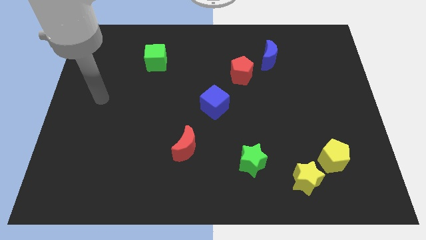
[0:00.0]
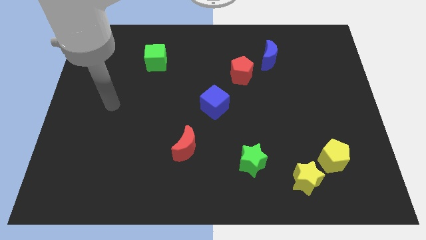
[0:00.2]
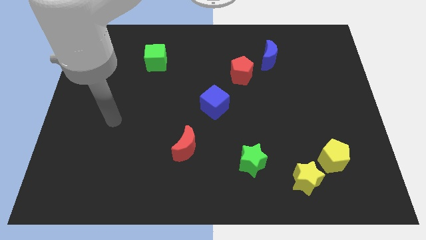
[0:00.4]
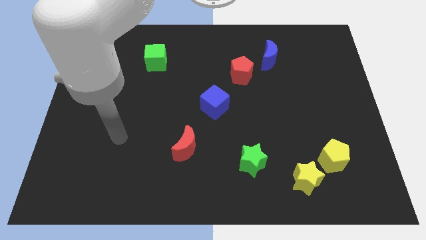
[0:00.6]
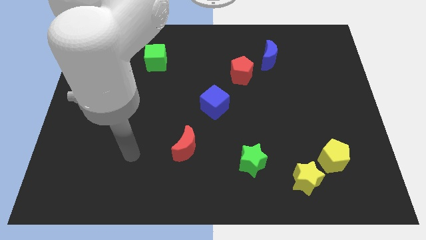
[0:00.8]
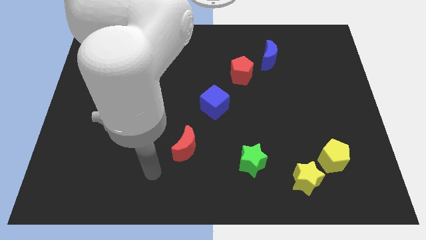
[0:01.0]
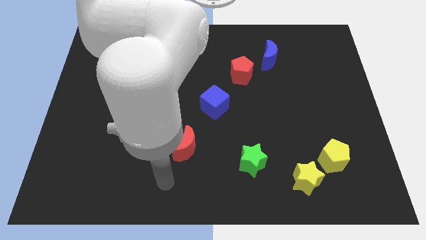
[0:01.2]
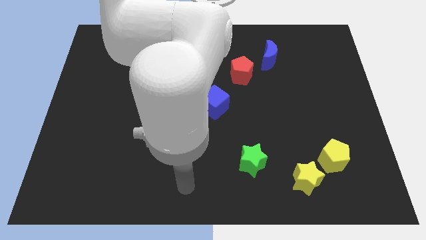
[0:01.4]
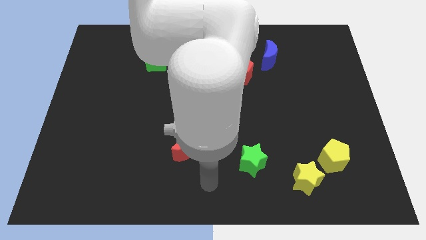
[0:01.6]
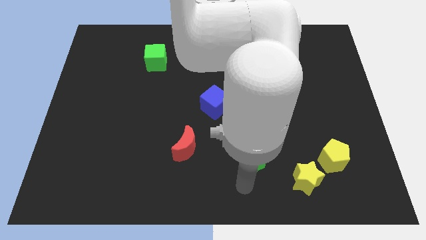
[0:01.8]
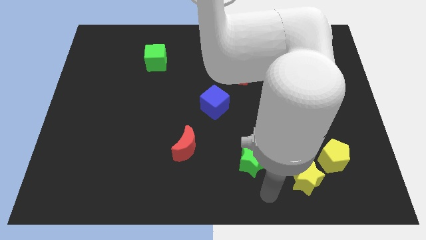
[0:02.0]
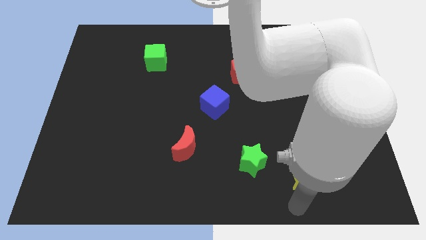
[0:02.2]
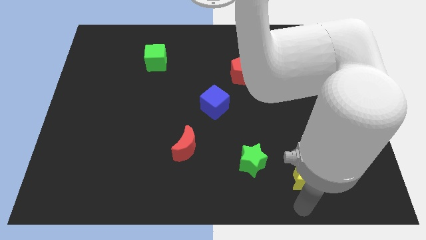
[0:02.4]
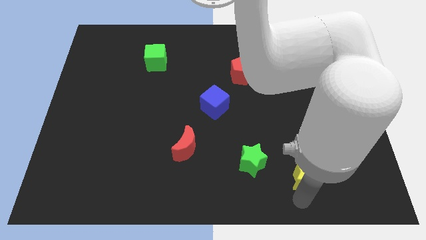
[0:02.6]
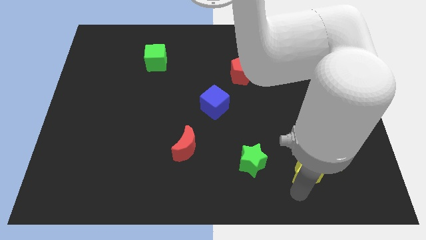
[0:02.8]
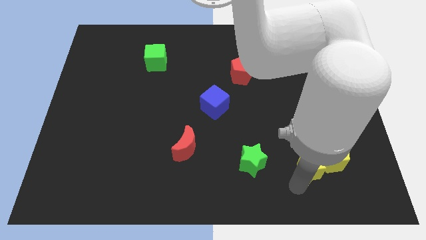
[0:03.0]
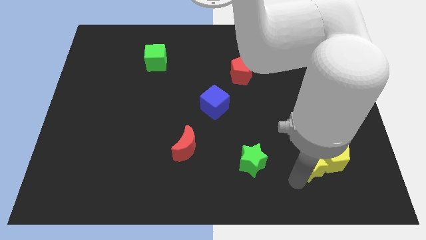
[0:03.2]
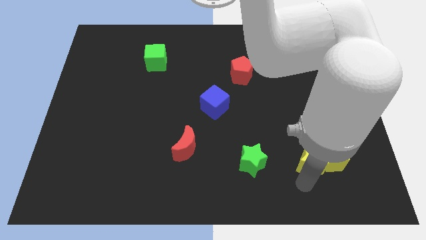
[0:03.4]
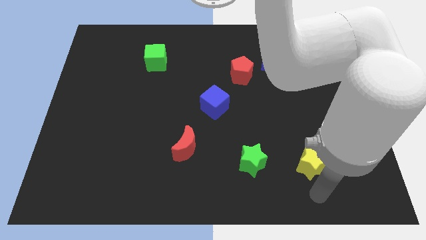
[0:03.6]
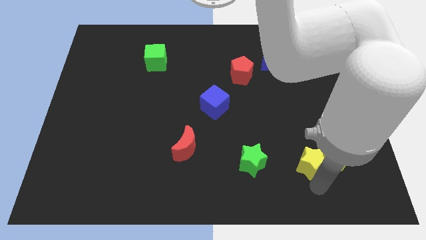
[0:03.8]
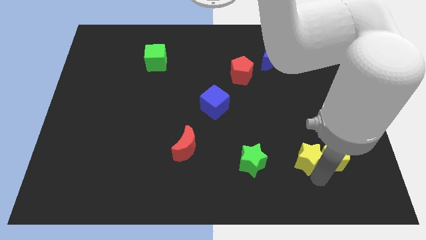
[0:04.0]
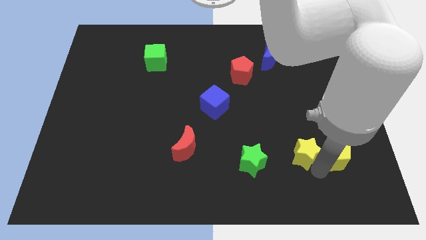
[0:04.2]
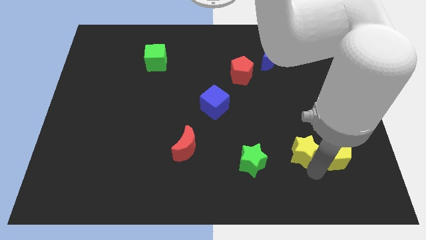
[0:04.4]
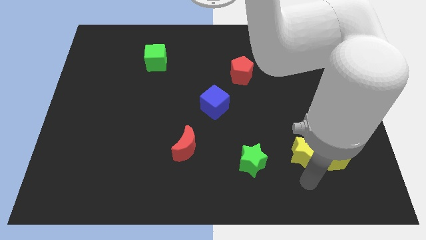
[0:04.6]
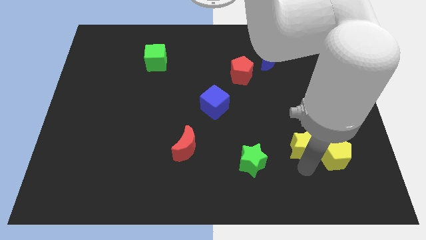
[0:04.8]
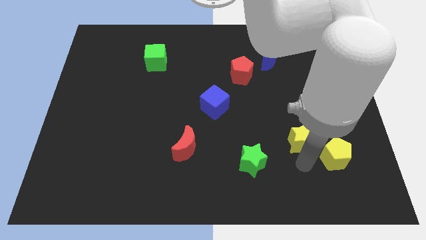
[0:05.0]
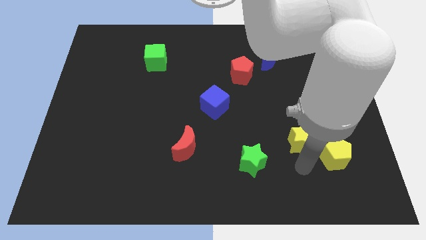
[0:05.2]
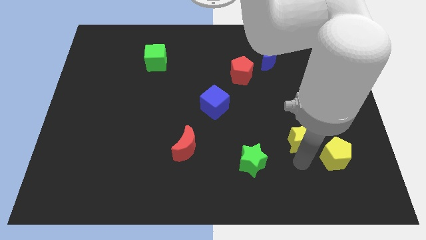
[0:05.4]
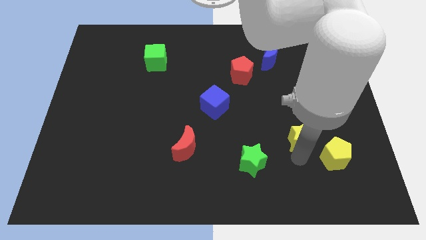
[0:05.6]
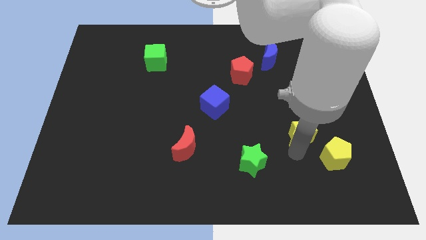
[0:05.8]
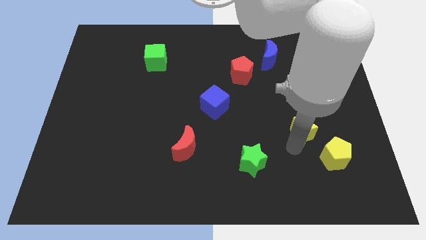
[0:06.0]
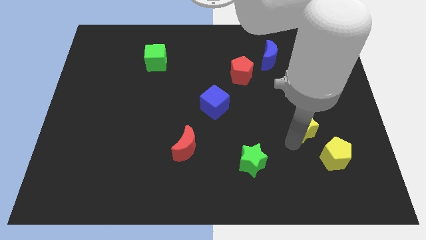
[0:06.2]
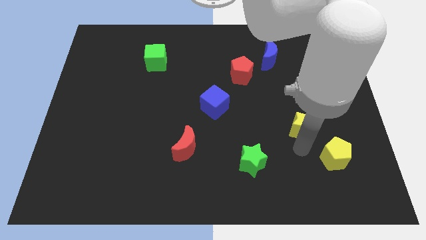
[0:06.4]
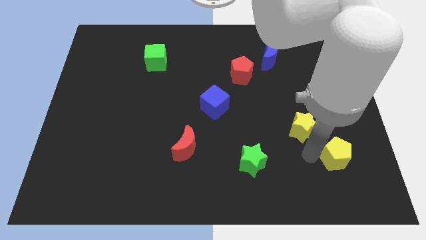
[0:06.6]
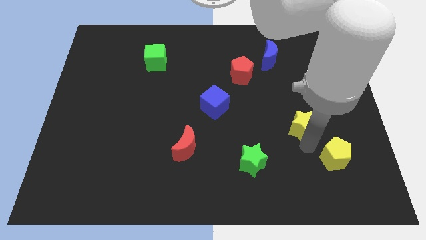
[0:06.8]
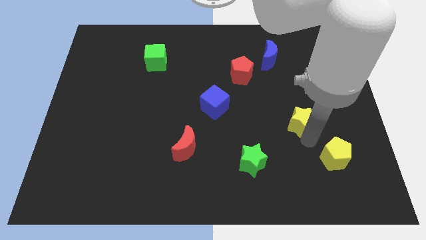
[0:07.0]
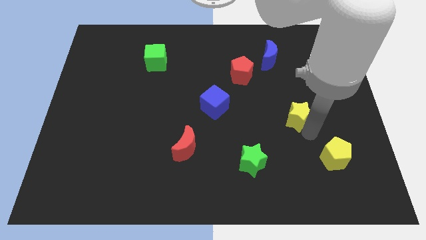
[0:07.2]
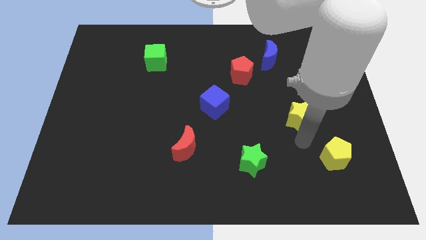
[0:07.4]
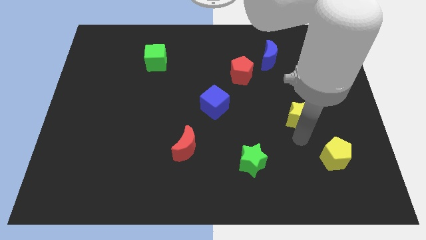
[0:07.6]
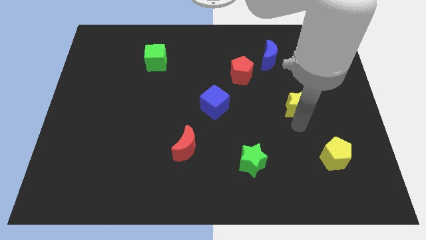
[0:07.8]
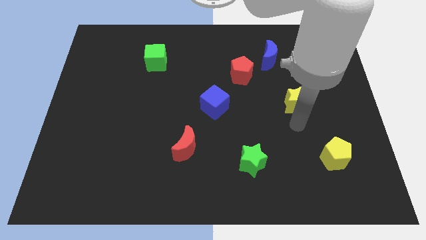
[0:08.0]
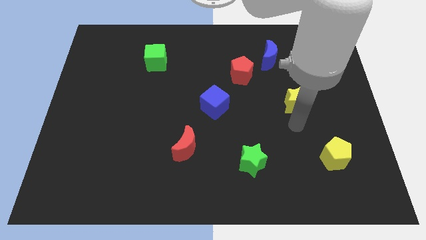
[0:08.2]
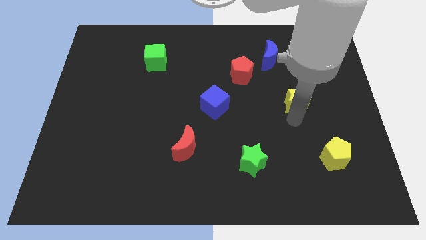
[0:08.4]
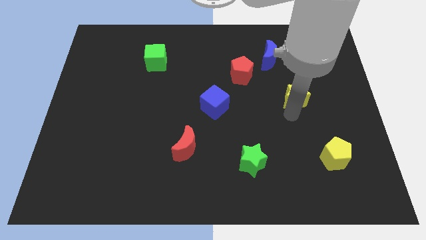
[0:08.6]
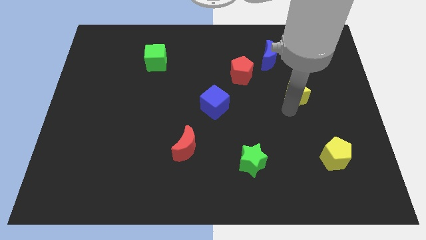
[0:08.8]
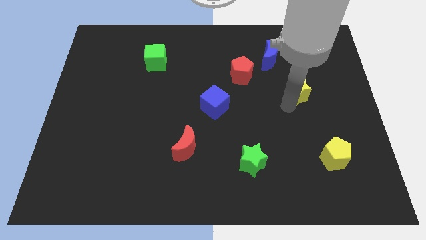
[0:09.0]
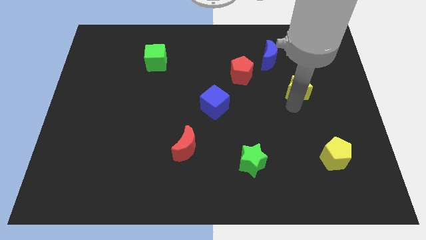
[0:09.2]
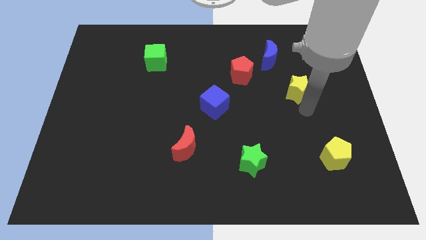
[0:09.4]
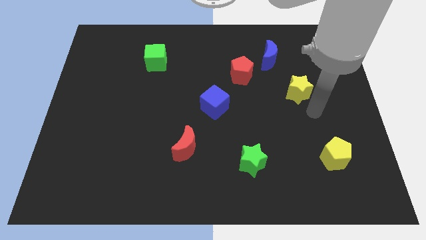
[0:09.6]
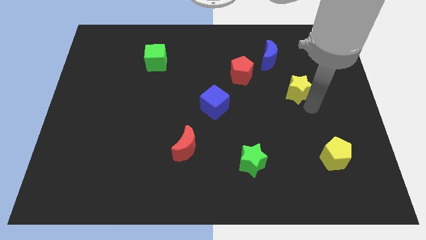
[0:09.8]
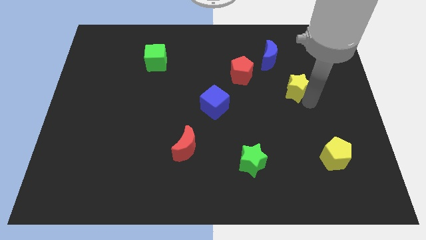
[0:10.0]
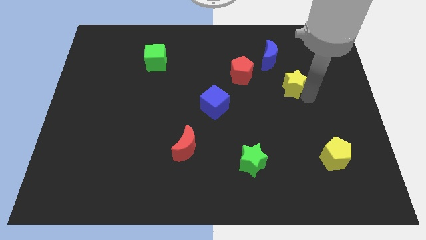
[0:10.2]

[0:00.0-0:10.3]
slide the yellow star to the right of the red pentagon

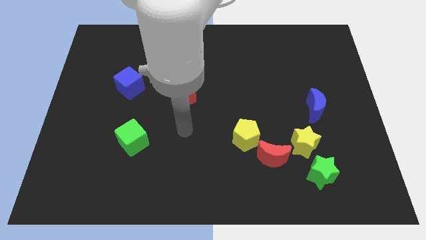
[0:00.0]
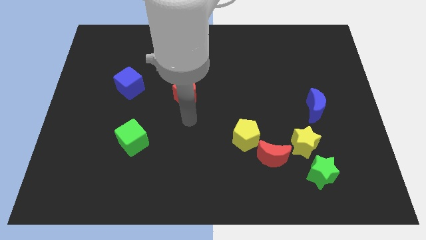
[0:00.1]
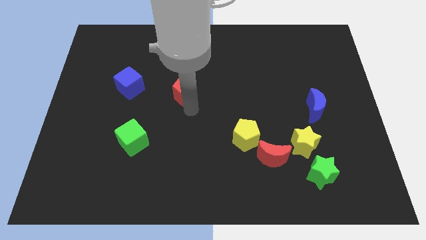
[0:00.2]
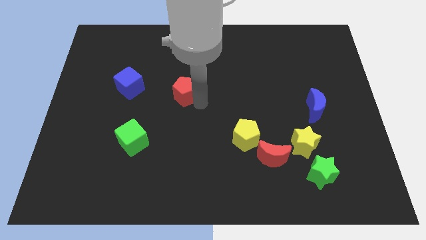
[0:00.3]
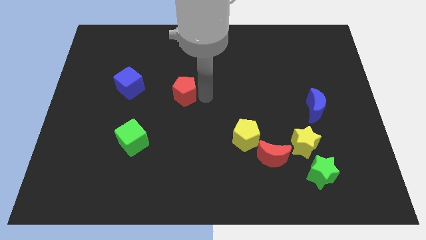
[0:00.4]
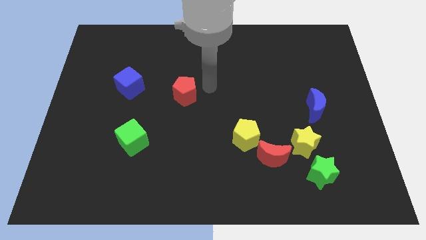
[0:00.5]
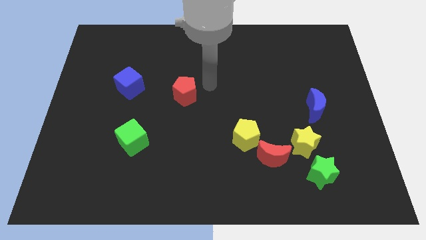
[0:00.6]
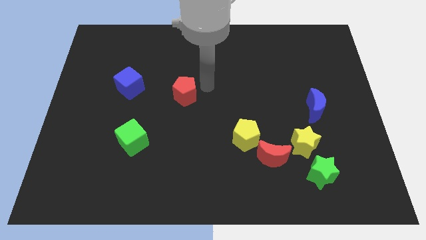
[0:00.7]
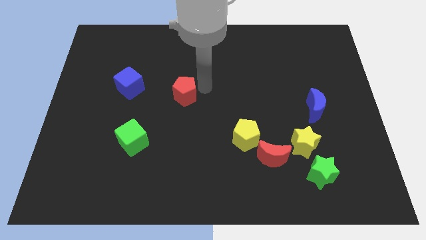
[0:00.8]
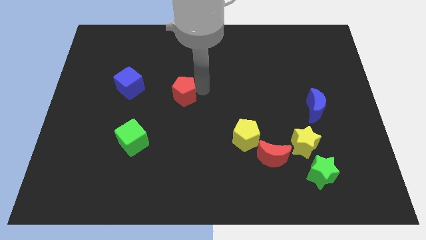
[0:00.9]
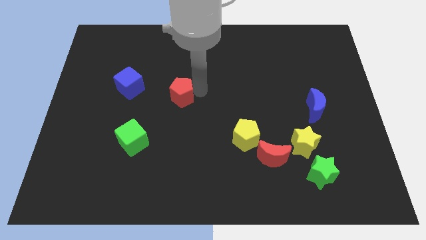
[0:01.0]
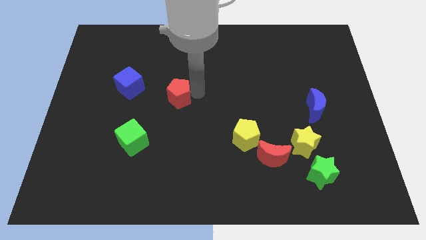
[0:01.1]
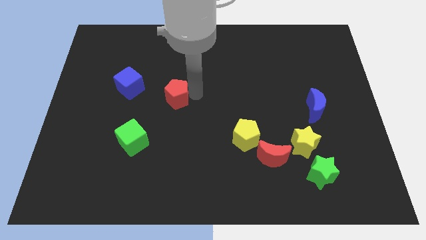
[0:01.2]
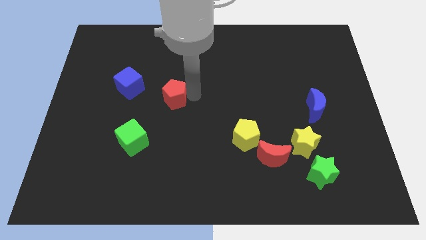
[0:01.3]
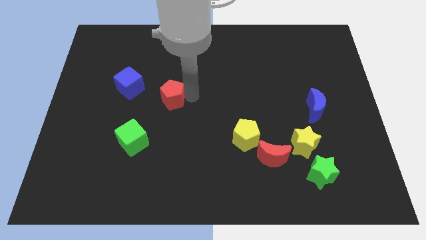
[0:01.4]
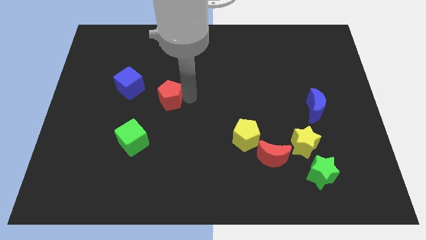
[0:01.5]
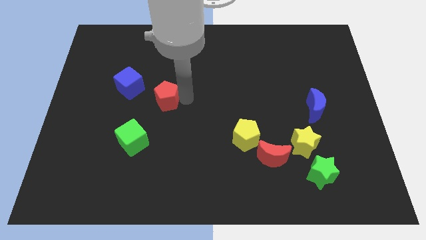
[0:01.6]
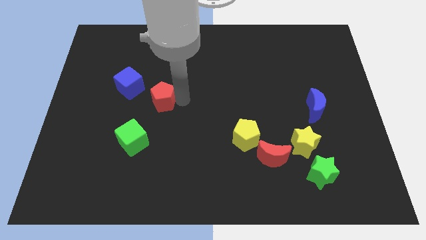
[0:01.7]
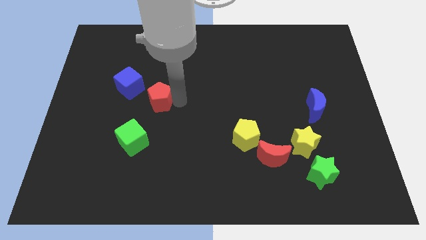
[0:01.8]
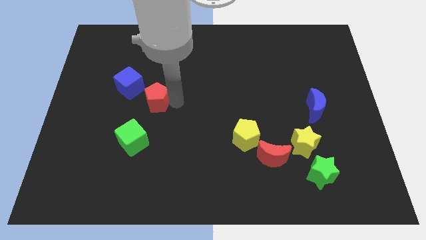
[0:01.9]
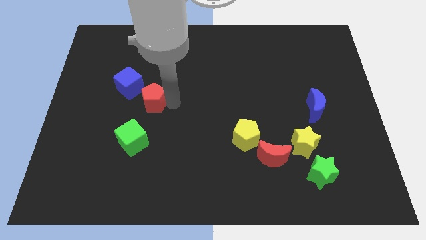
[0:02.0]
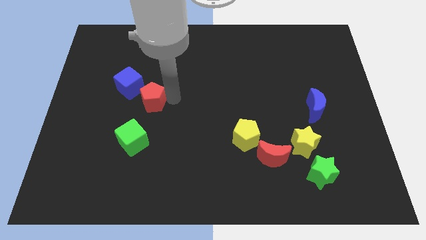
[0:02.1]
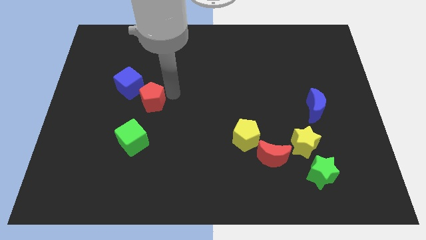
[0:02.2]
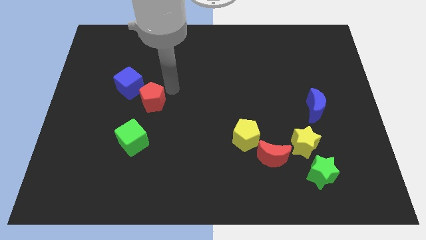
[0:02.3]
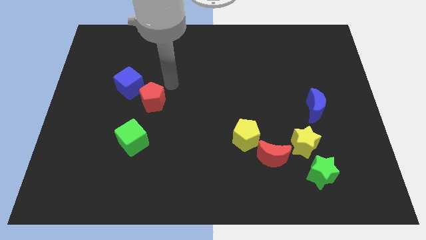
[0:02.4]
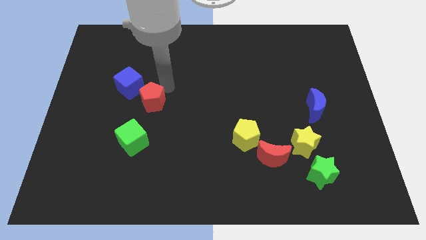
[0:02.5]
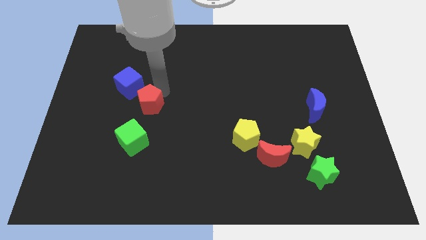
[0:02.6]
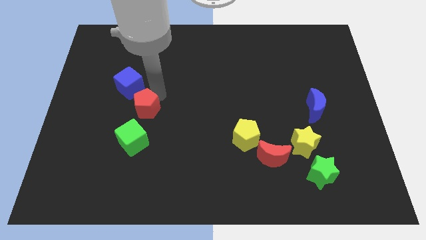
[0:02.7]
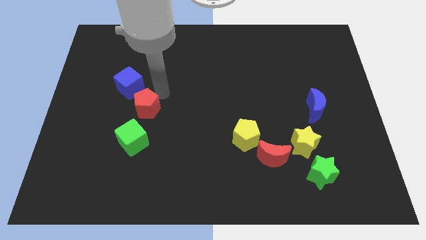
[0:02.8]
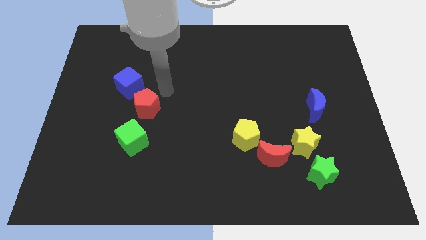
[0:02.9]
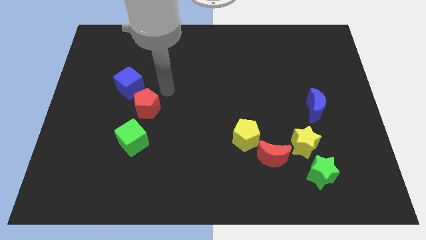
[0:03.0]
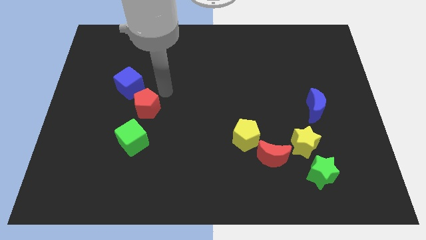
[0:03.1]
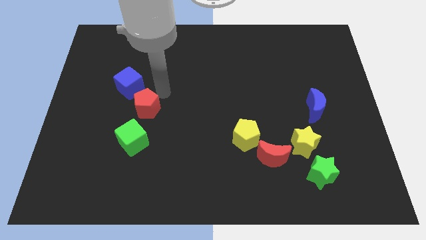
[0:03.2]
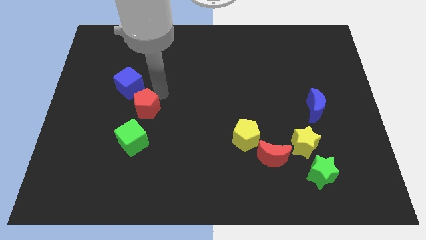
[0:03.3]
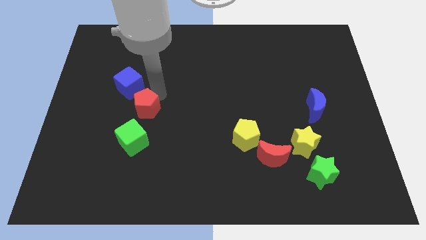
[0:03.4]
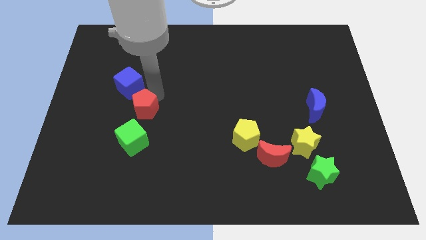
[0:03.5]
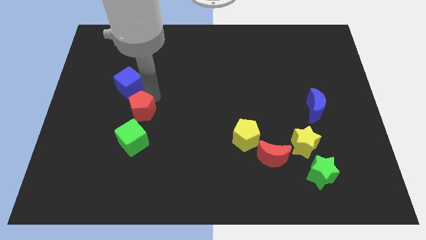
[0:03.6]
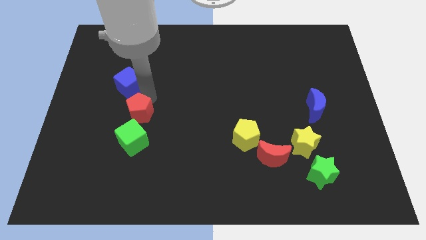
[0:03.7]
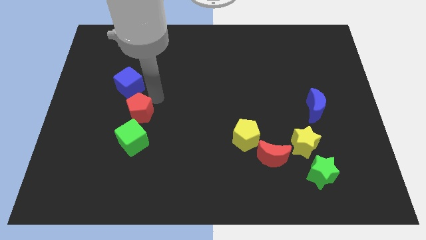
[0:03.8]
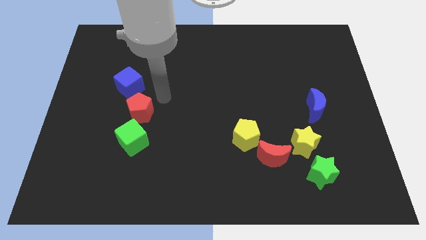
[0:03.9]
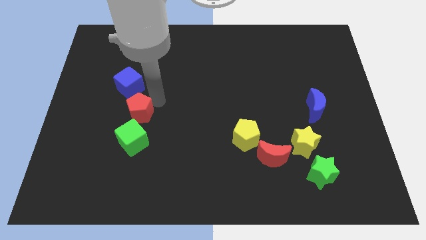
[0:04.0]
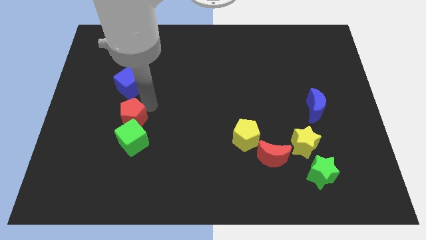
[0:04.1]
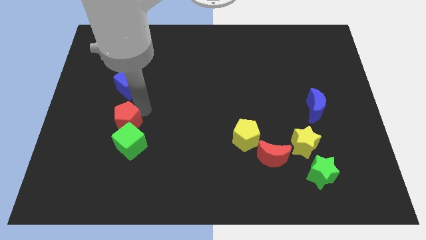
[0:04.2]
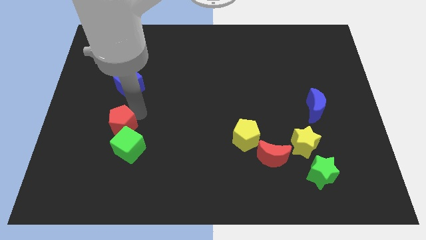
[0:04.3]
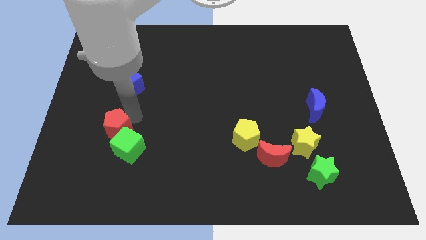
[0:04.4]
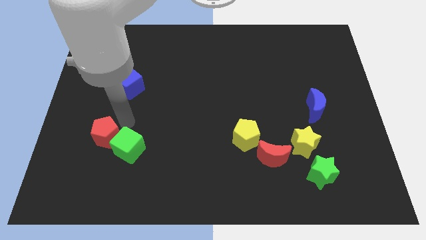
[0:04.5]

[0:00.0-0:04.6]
move the red pentagon to the left side of the green cube
